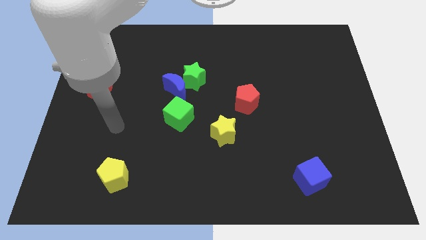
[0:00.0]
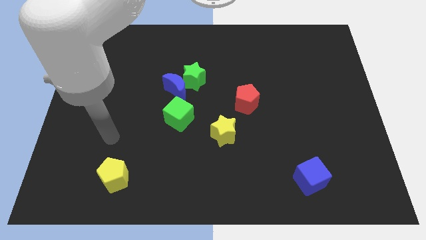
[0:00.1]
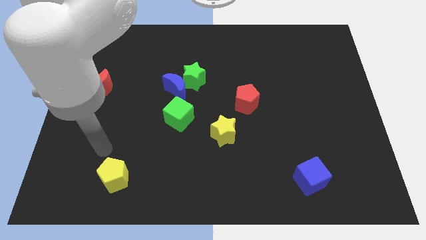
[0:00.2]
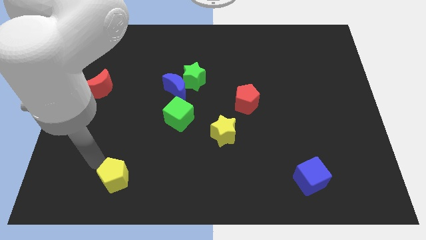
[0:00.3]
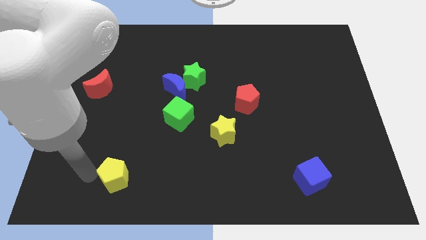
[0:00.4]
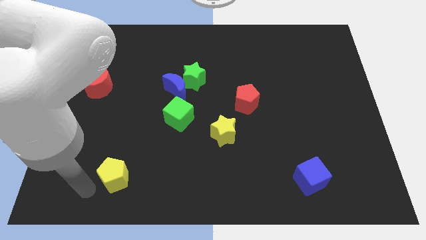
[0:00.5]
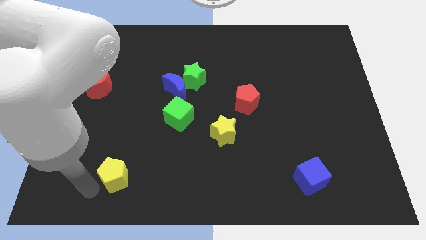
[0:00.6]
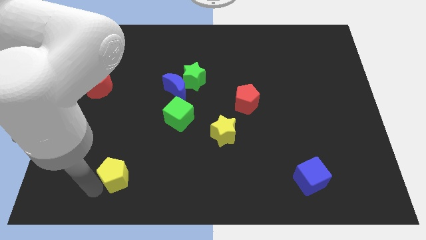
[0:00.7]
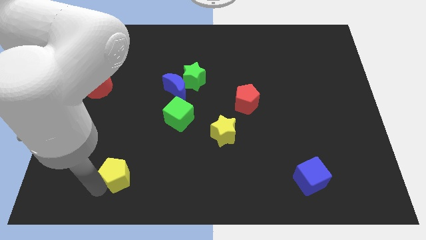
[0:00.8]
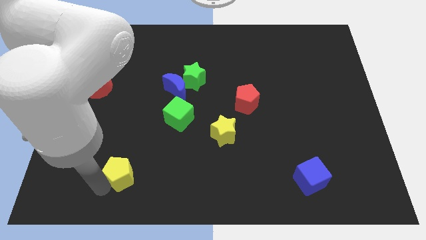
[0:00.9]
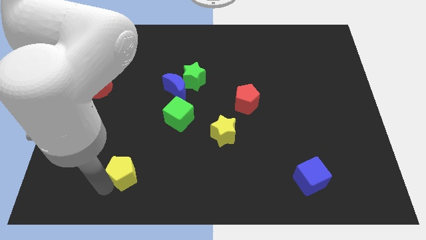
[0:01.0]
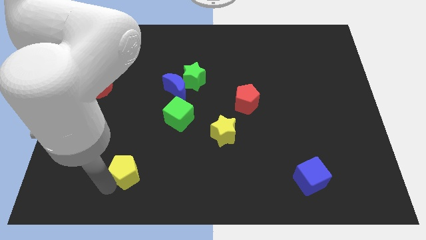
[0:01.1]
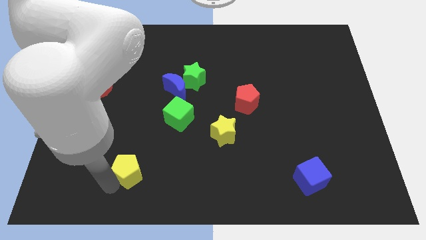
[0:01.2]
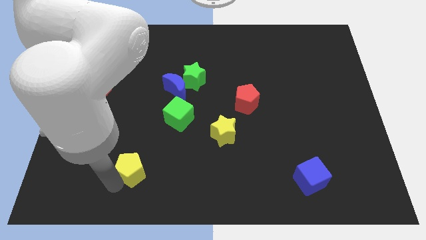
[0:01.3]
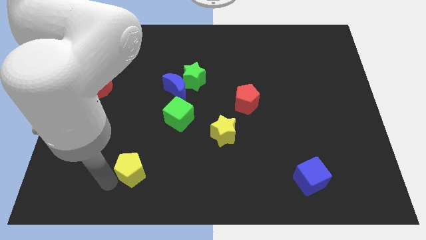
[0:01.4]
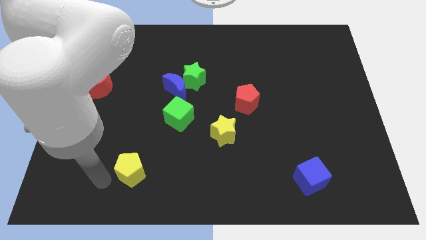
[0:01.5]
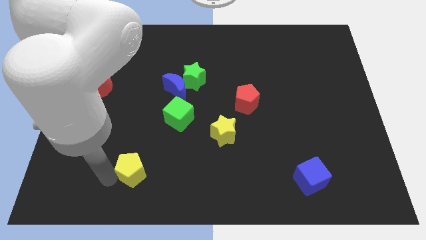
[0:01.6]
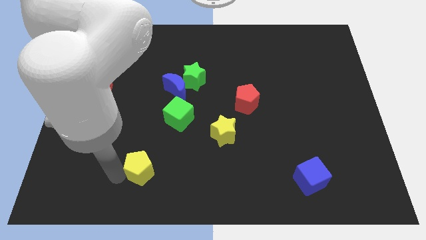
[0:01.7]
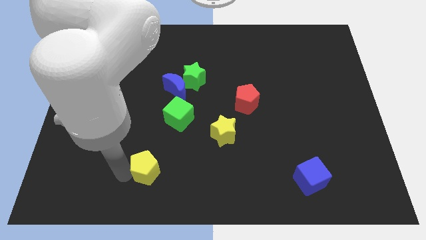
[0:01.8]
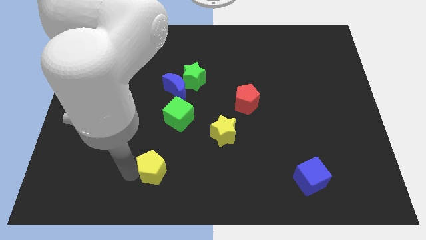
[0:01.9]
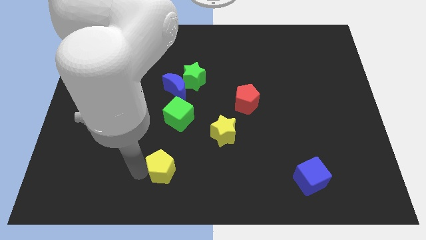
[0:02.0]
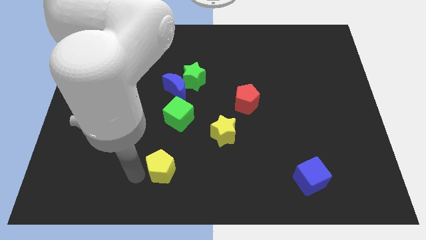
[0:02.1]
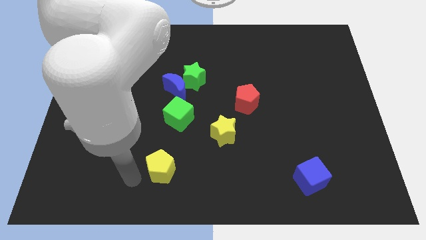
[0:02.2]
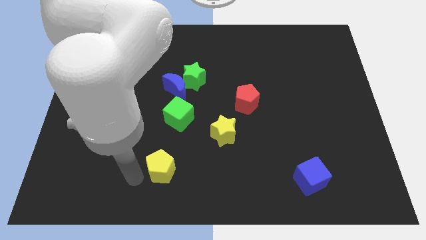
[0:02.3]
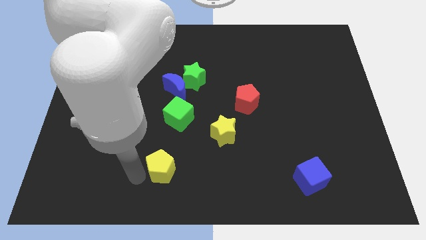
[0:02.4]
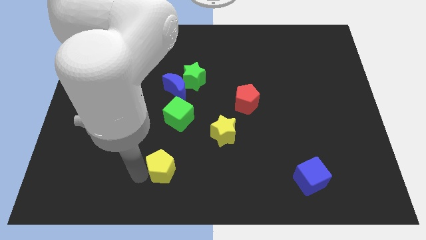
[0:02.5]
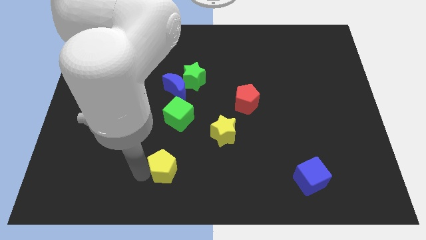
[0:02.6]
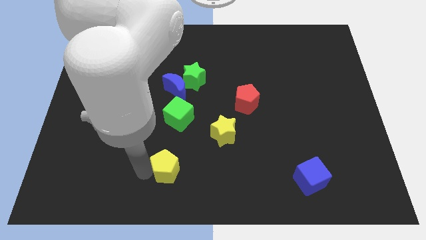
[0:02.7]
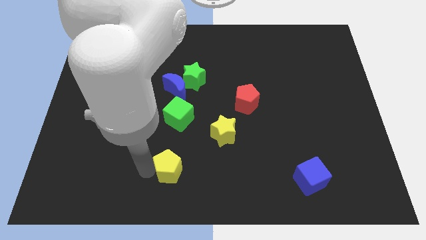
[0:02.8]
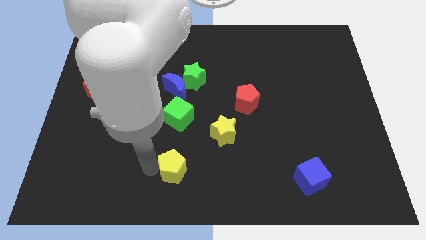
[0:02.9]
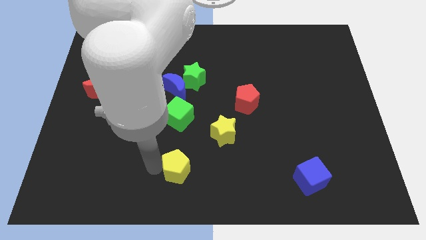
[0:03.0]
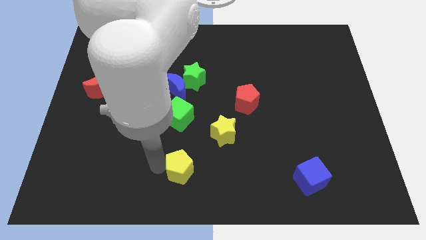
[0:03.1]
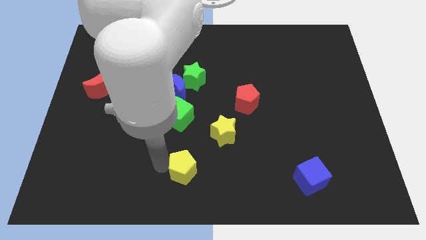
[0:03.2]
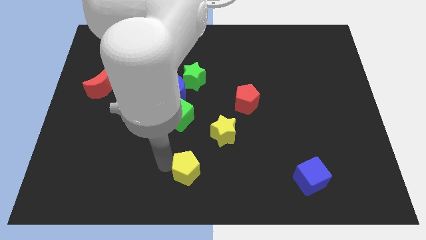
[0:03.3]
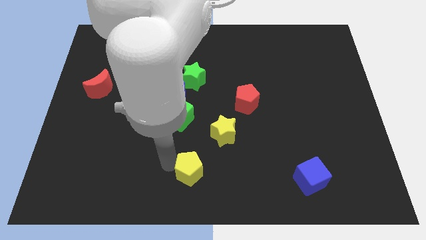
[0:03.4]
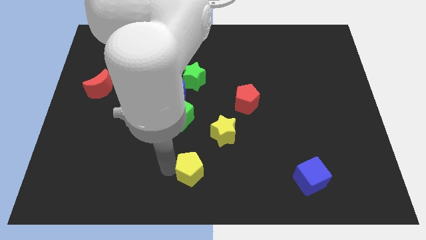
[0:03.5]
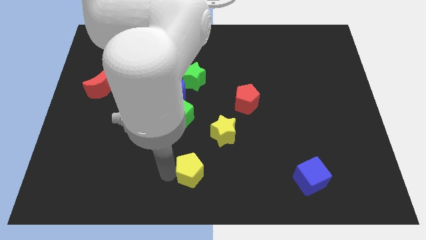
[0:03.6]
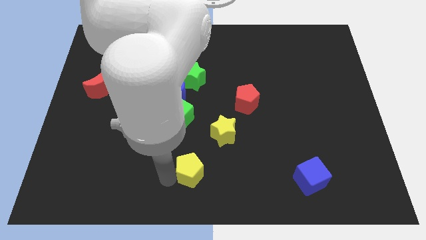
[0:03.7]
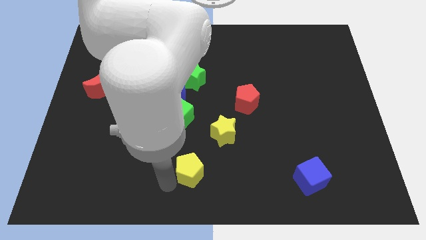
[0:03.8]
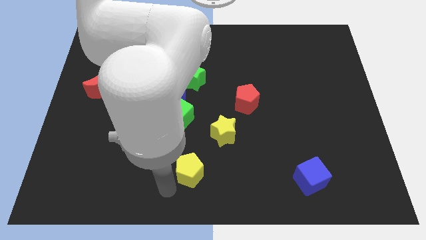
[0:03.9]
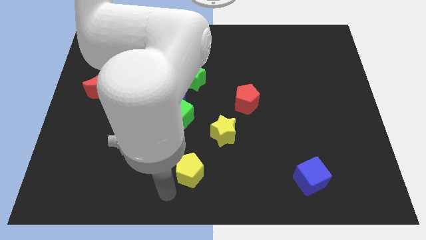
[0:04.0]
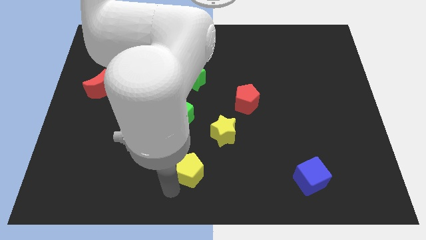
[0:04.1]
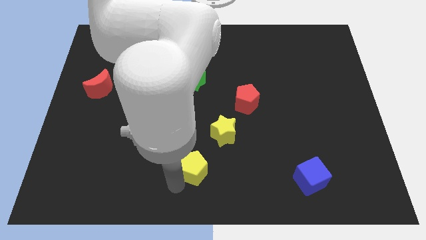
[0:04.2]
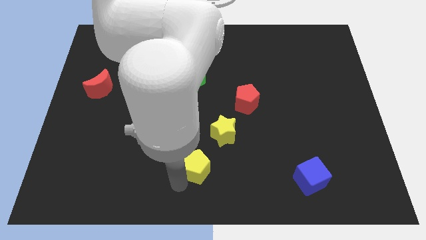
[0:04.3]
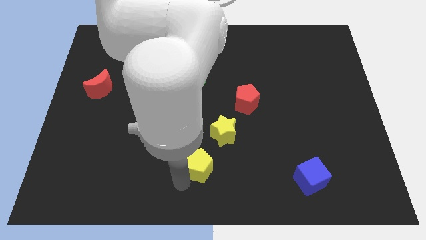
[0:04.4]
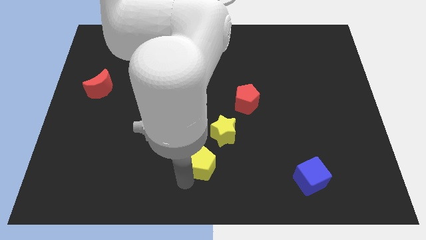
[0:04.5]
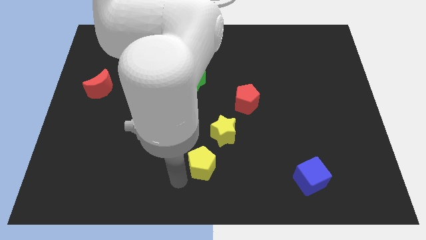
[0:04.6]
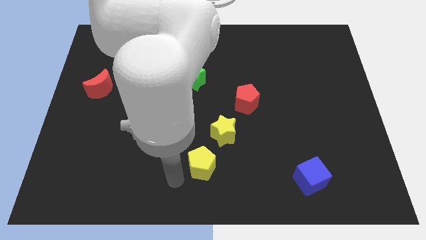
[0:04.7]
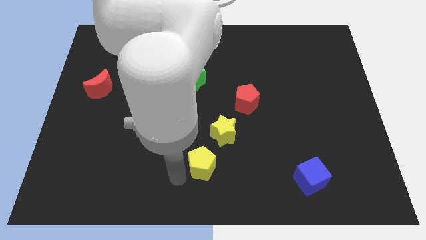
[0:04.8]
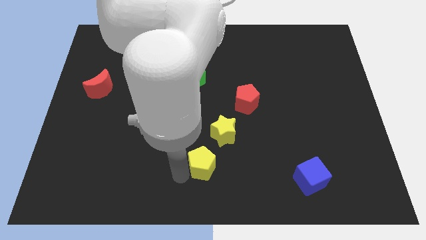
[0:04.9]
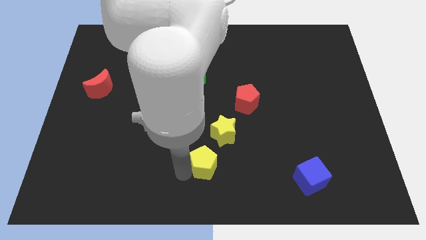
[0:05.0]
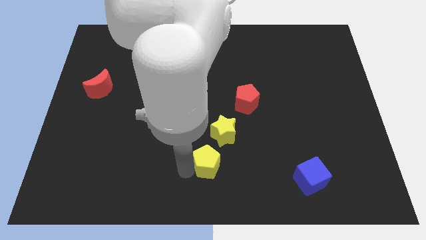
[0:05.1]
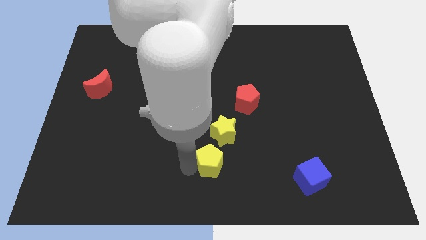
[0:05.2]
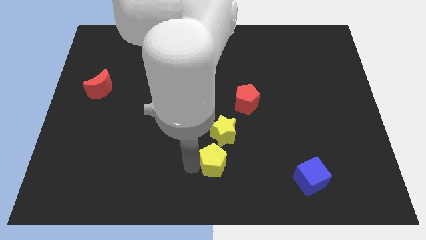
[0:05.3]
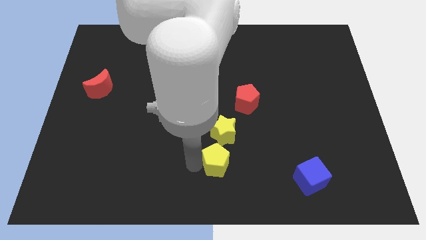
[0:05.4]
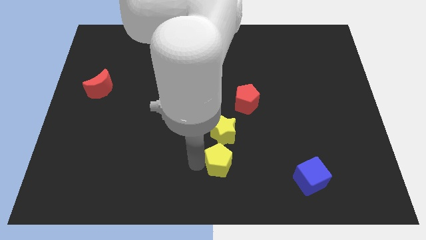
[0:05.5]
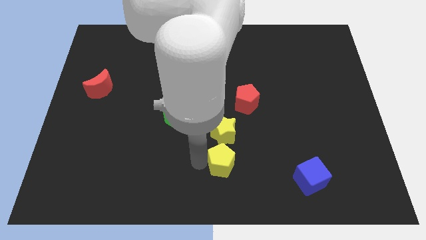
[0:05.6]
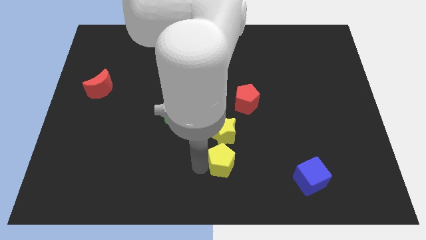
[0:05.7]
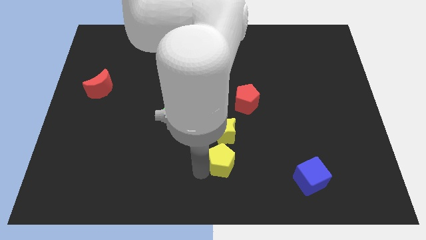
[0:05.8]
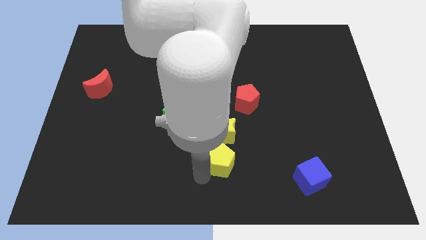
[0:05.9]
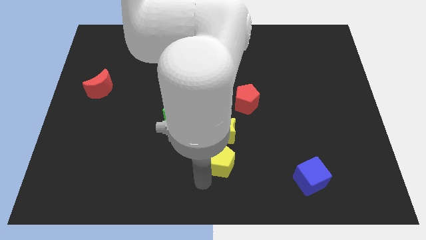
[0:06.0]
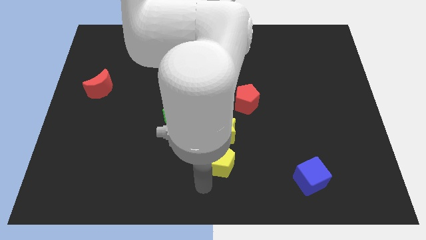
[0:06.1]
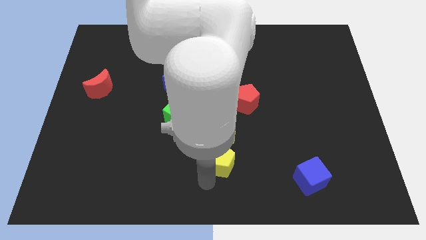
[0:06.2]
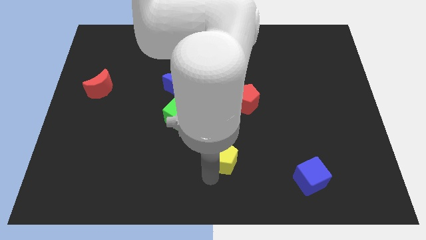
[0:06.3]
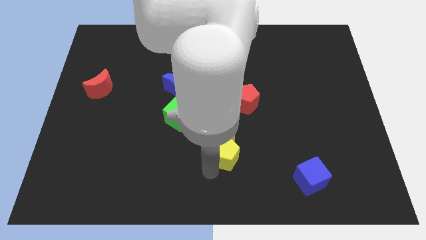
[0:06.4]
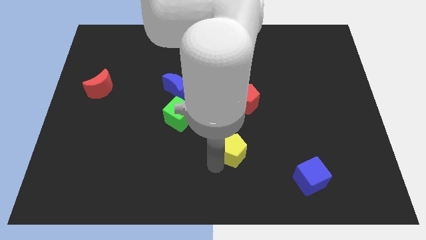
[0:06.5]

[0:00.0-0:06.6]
move the yellow pentagon below the red pentagon
